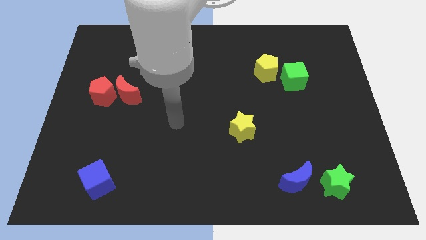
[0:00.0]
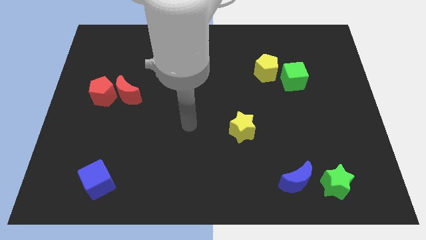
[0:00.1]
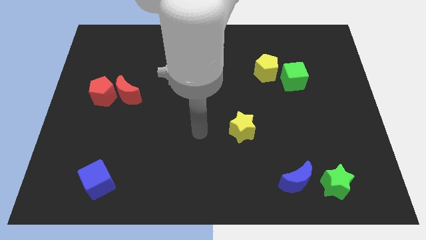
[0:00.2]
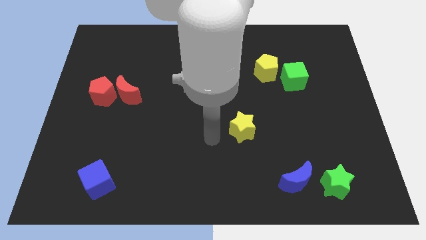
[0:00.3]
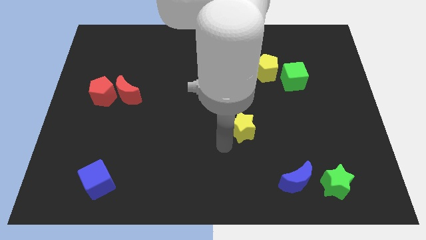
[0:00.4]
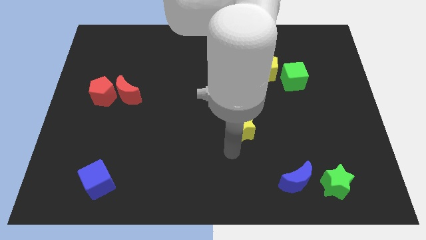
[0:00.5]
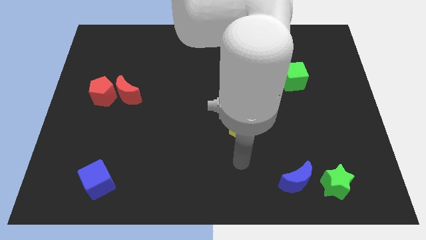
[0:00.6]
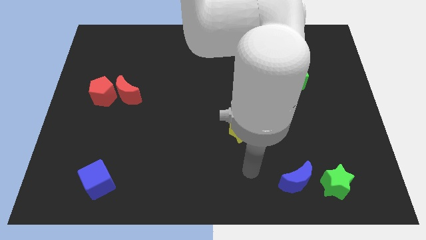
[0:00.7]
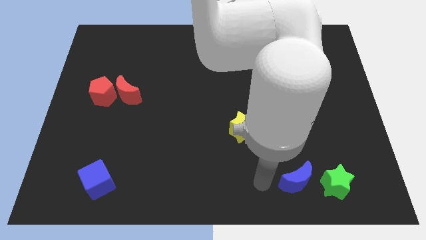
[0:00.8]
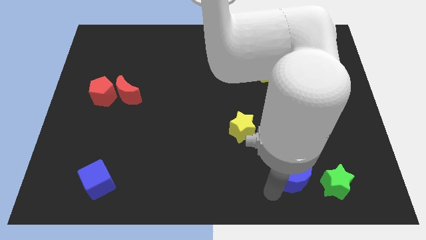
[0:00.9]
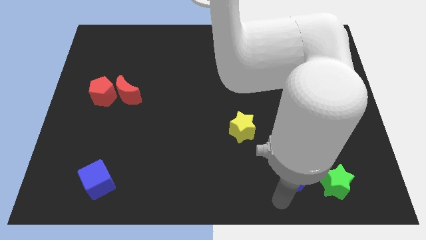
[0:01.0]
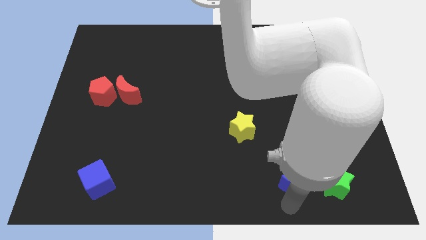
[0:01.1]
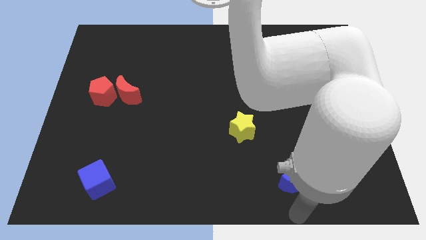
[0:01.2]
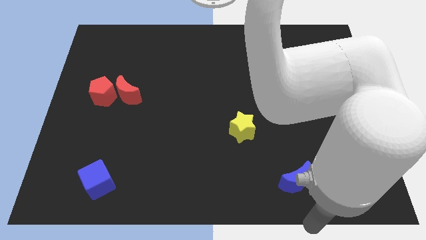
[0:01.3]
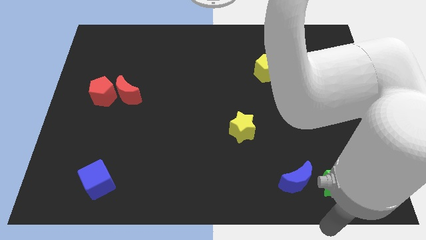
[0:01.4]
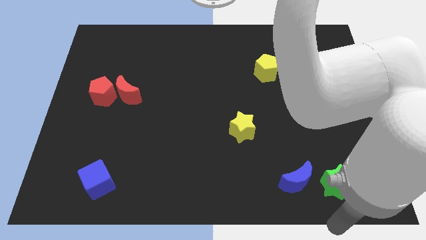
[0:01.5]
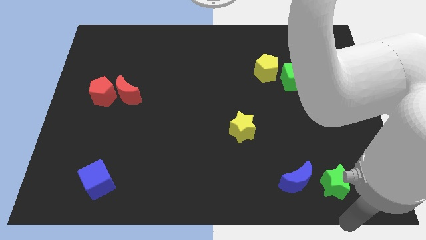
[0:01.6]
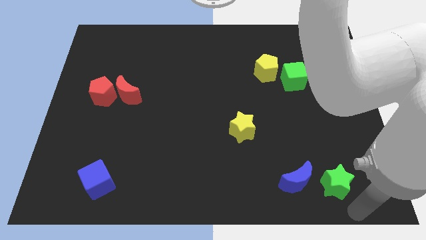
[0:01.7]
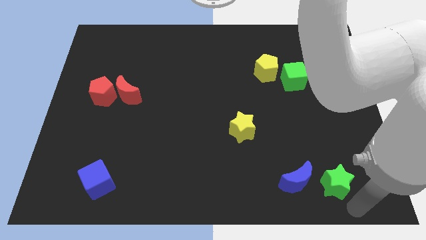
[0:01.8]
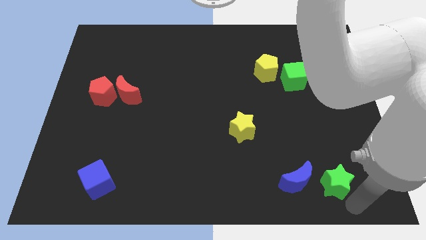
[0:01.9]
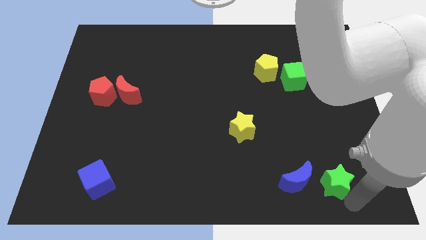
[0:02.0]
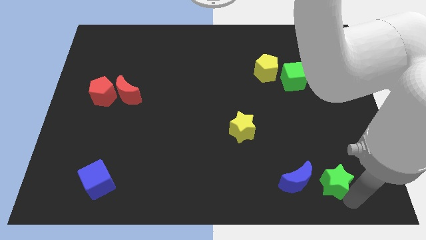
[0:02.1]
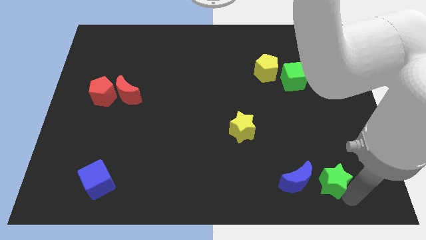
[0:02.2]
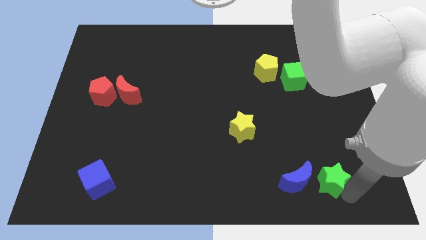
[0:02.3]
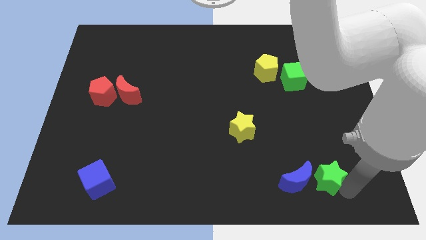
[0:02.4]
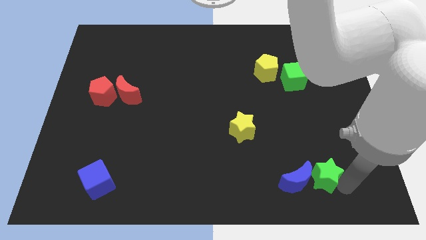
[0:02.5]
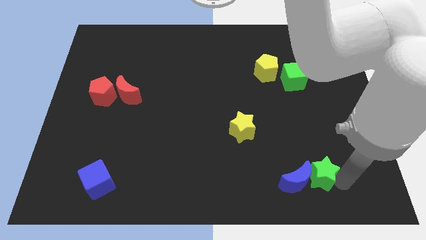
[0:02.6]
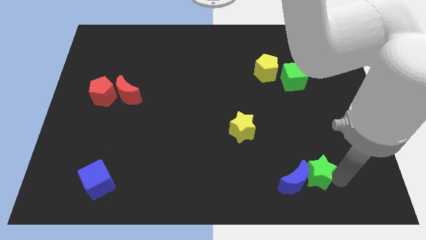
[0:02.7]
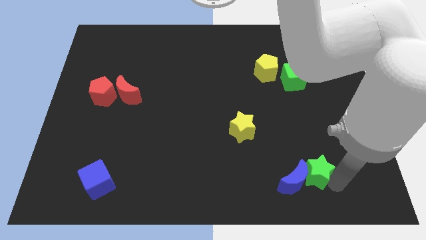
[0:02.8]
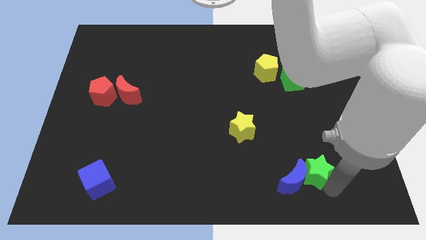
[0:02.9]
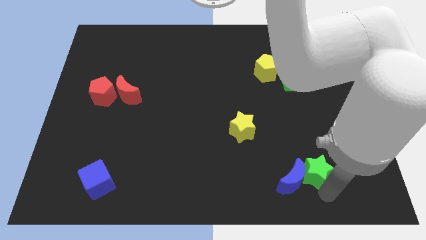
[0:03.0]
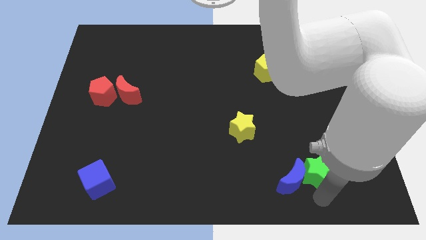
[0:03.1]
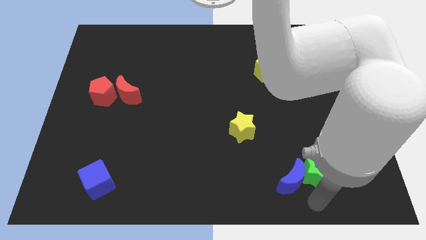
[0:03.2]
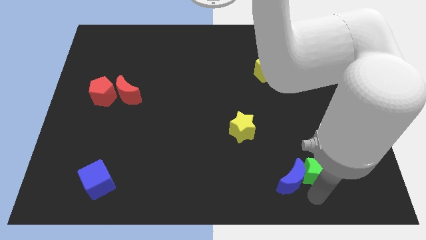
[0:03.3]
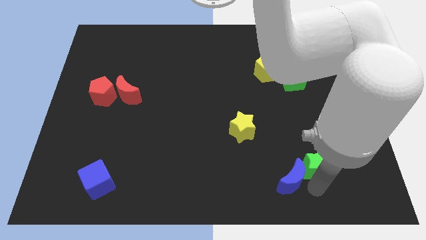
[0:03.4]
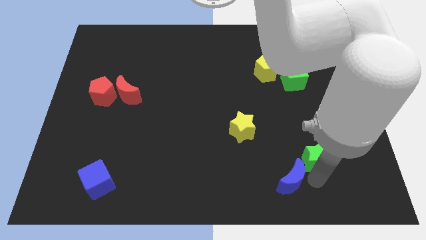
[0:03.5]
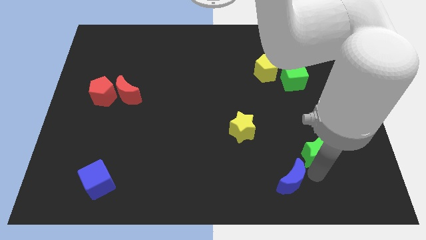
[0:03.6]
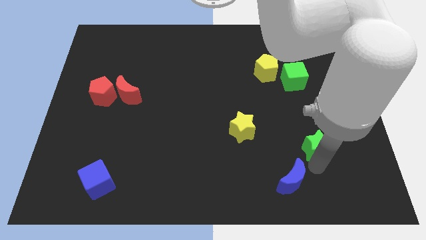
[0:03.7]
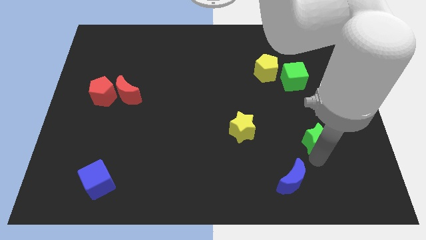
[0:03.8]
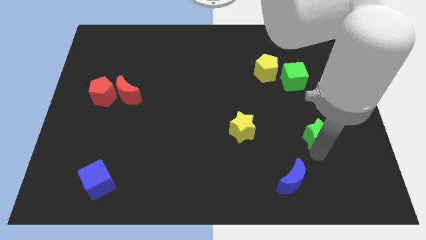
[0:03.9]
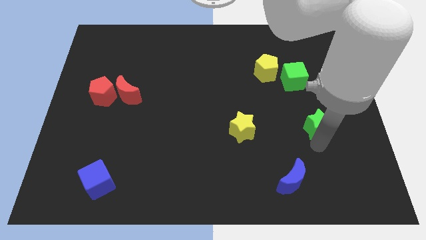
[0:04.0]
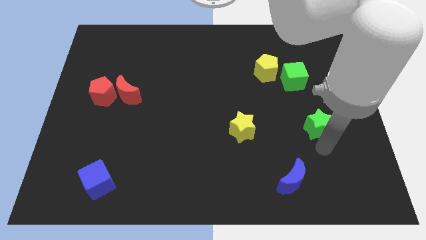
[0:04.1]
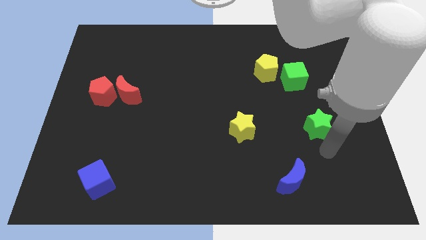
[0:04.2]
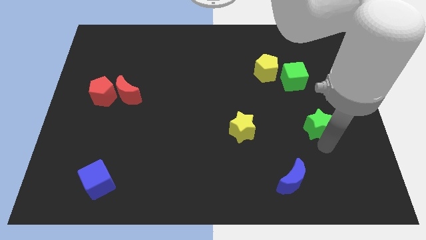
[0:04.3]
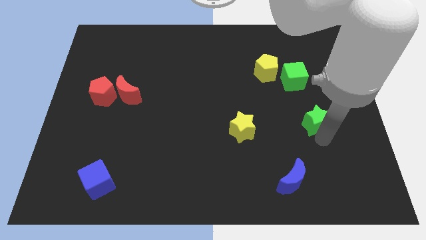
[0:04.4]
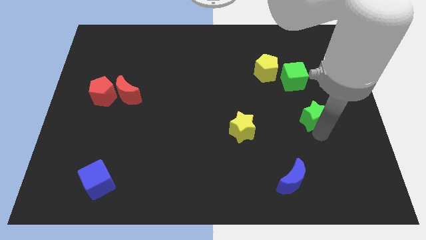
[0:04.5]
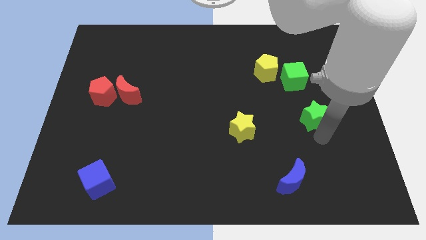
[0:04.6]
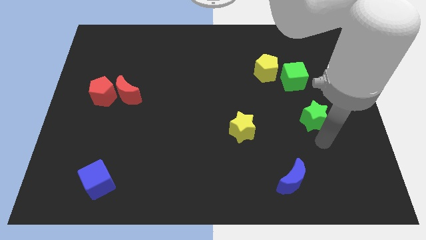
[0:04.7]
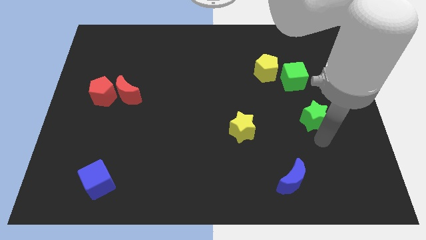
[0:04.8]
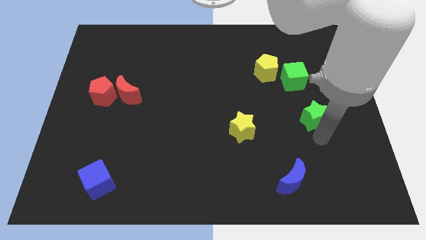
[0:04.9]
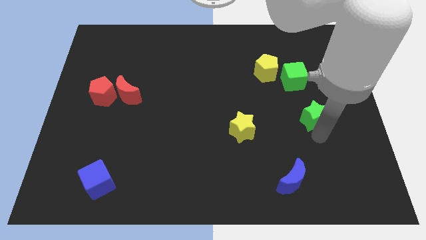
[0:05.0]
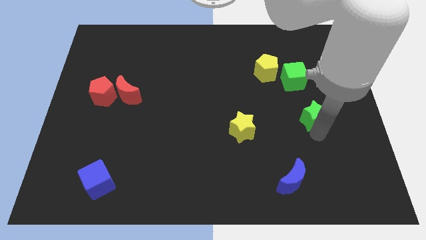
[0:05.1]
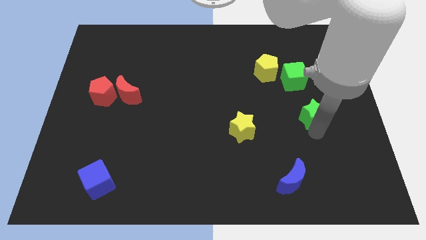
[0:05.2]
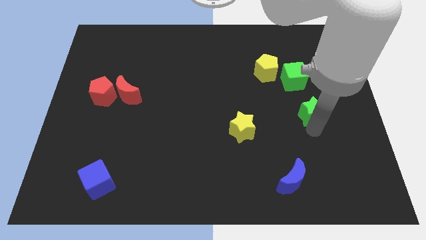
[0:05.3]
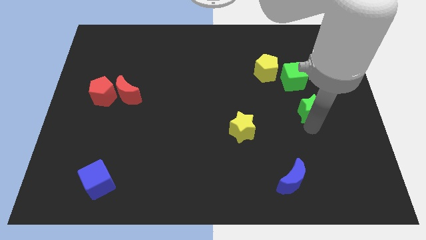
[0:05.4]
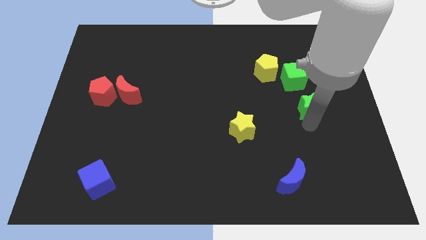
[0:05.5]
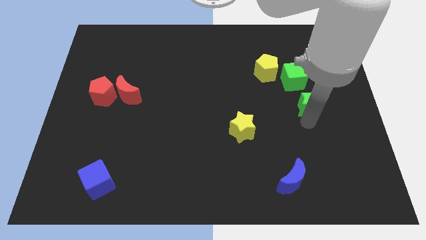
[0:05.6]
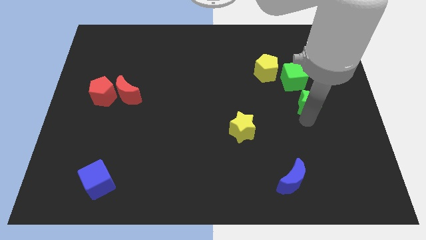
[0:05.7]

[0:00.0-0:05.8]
push the green star upwards

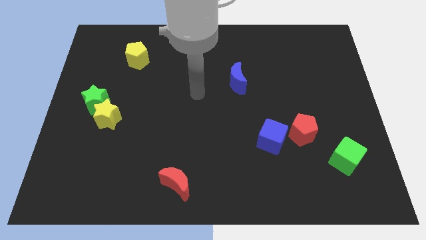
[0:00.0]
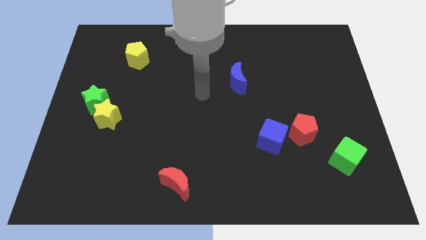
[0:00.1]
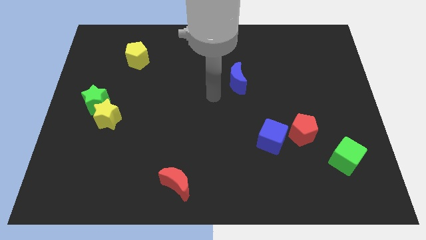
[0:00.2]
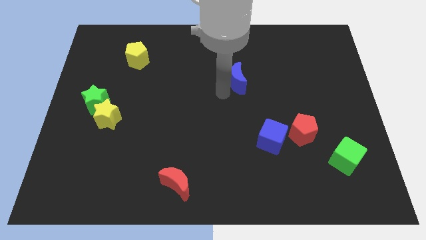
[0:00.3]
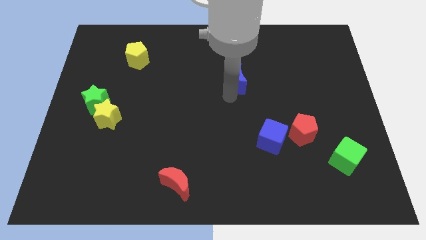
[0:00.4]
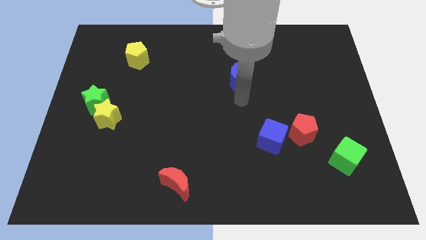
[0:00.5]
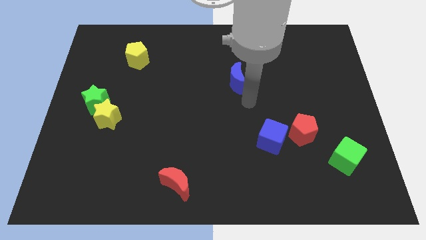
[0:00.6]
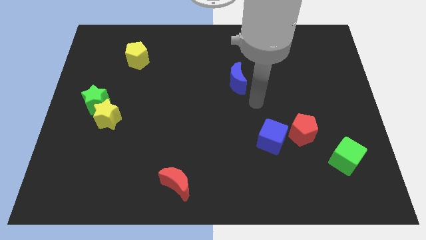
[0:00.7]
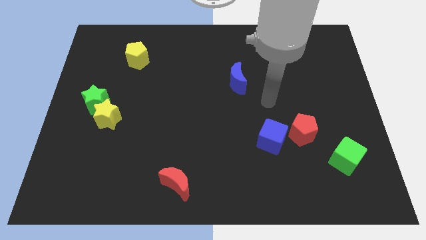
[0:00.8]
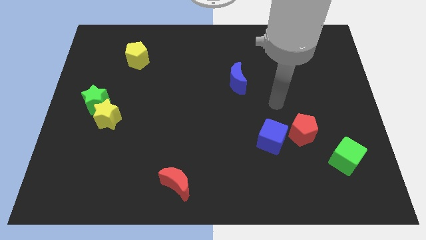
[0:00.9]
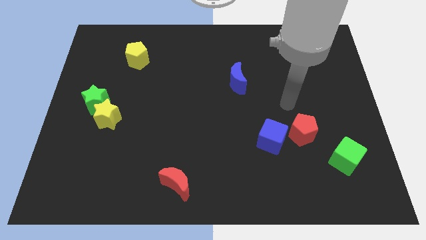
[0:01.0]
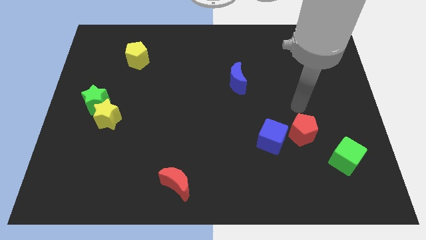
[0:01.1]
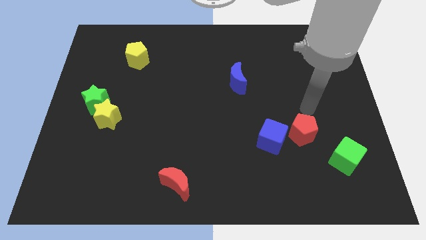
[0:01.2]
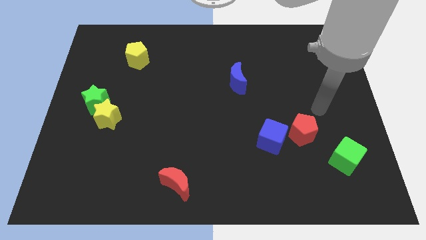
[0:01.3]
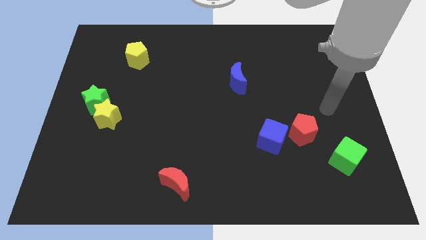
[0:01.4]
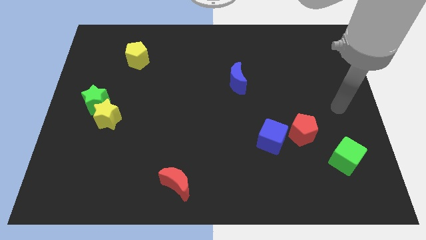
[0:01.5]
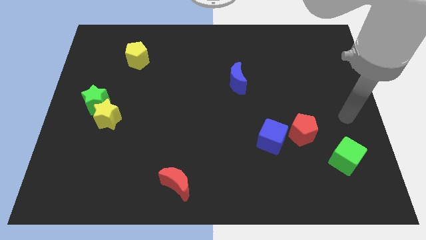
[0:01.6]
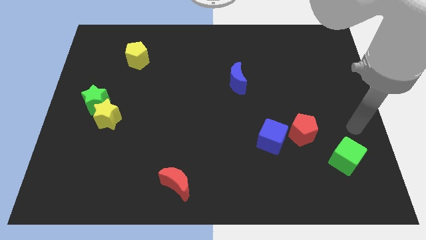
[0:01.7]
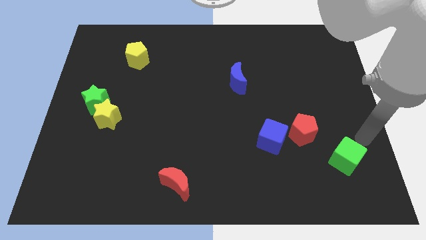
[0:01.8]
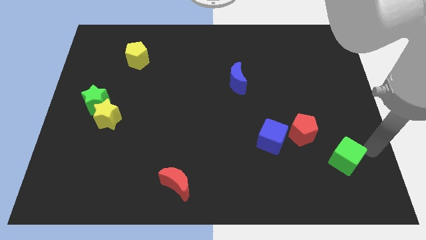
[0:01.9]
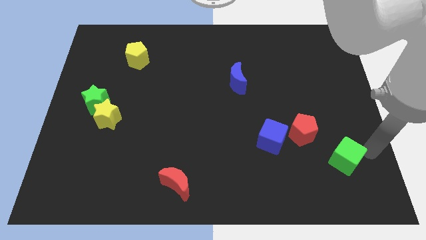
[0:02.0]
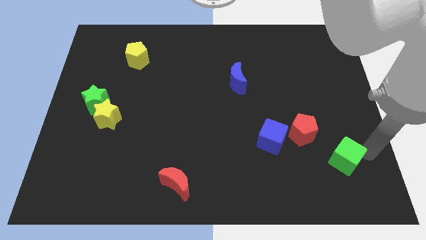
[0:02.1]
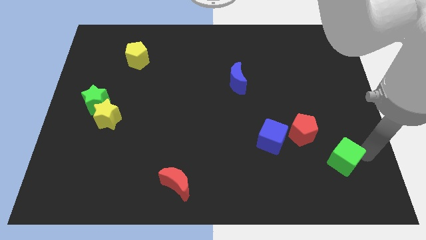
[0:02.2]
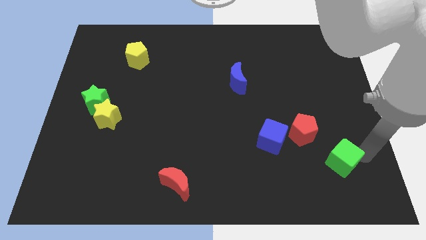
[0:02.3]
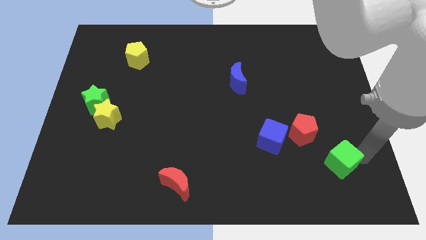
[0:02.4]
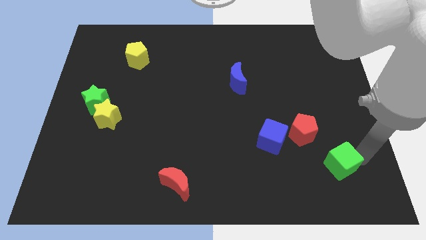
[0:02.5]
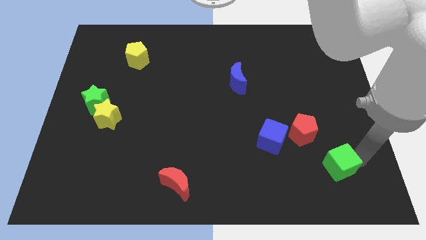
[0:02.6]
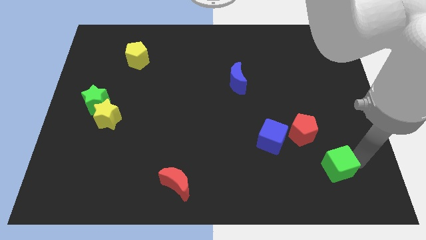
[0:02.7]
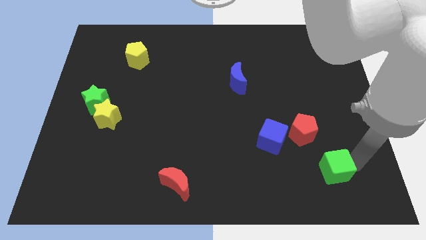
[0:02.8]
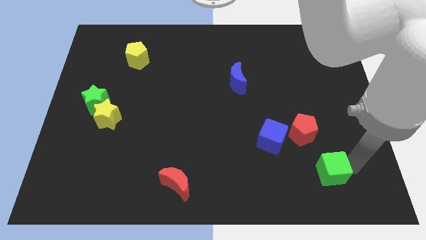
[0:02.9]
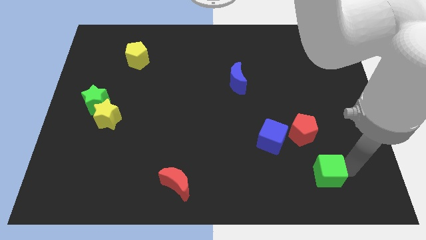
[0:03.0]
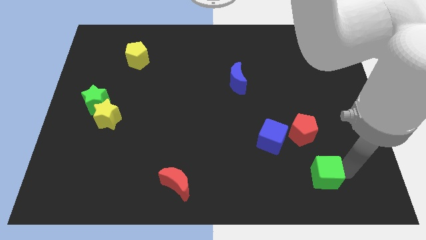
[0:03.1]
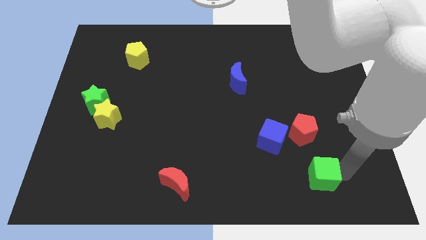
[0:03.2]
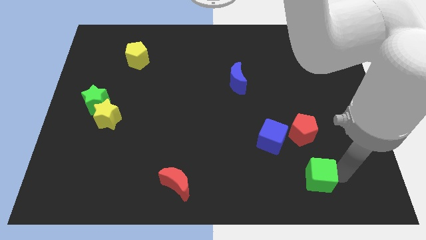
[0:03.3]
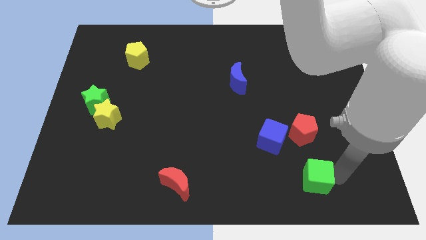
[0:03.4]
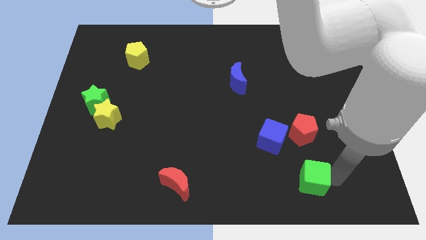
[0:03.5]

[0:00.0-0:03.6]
move the green cube somewhat left
